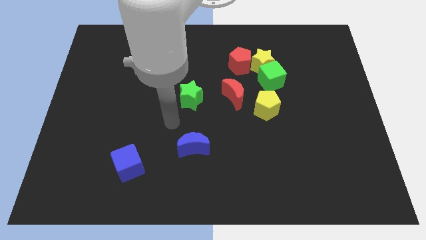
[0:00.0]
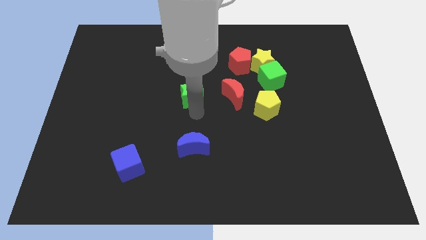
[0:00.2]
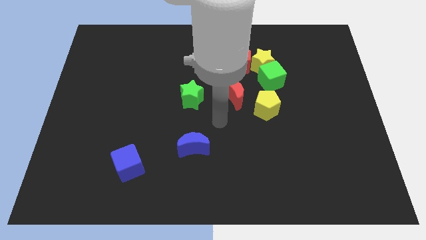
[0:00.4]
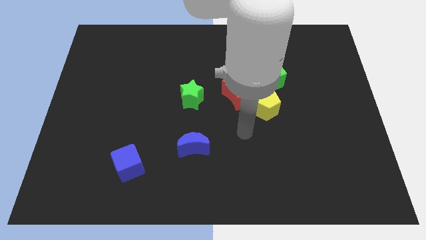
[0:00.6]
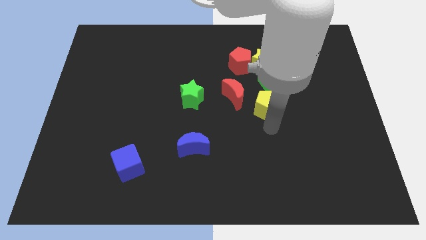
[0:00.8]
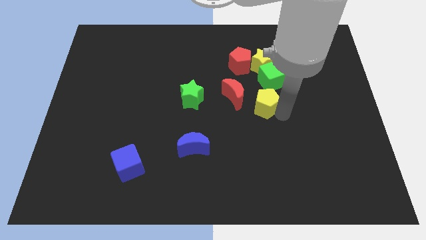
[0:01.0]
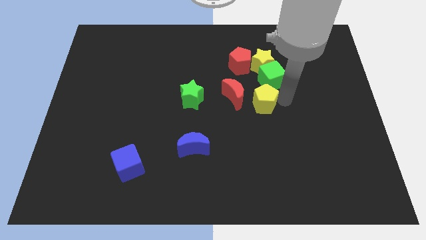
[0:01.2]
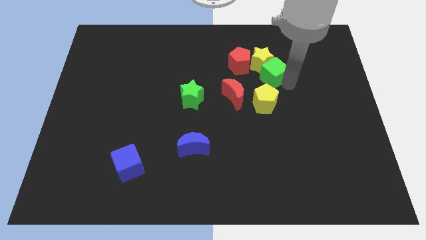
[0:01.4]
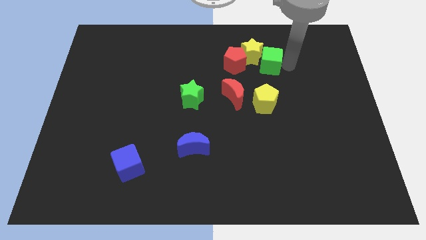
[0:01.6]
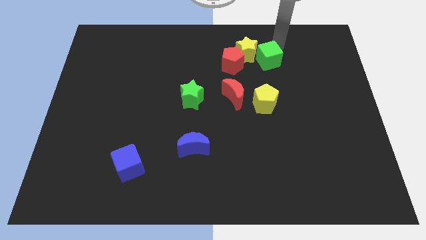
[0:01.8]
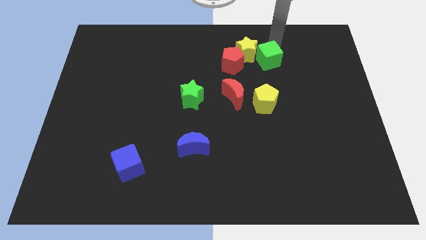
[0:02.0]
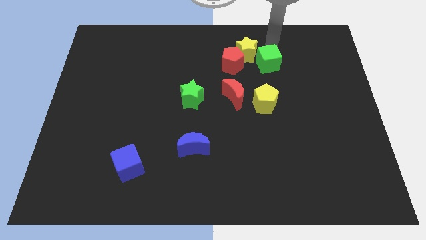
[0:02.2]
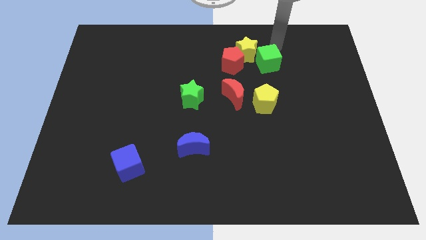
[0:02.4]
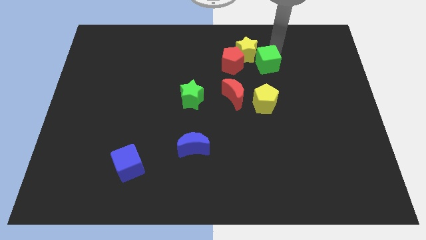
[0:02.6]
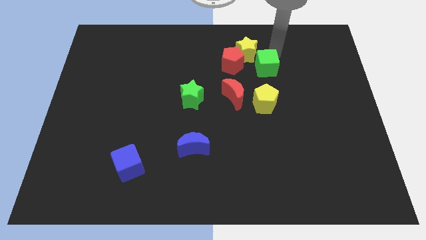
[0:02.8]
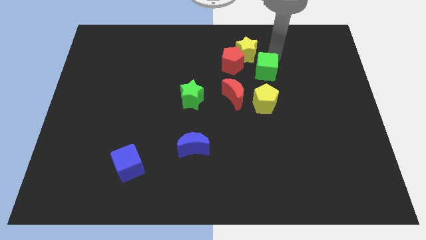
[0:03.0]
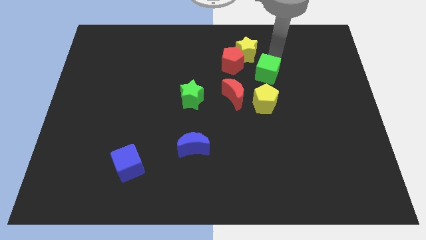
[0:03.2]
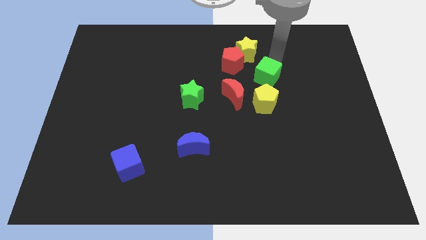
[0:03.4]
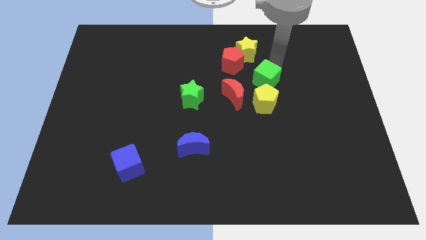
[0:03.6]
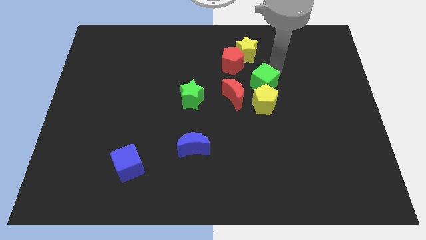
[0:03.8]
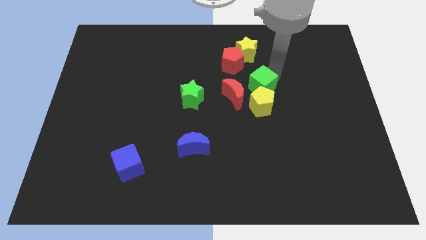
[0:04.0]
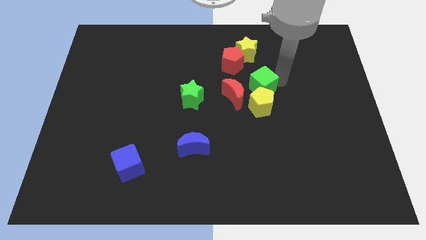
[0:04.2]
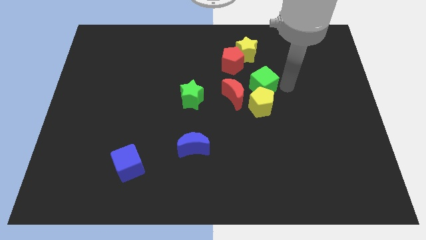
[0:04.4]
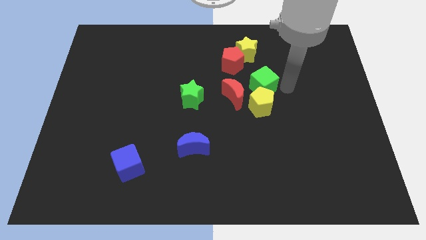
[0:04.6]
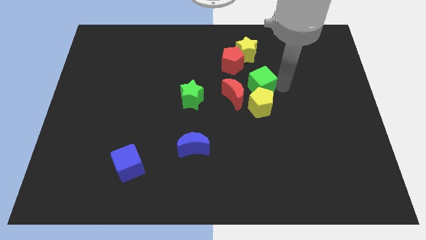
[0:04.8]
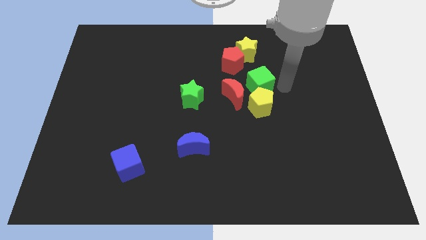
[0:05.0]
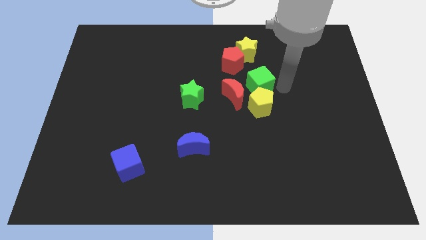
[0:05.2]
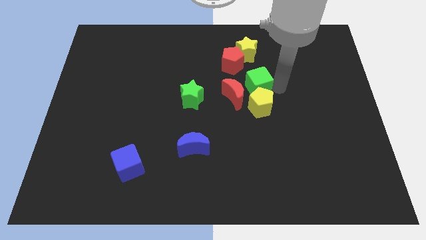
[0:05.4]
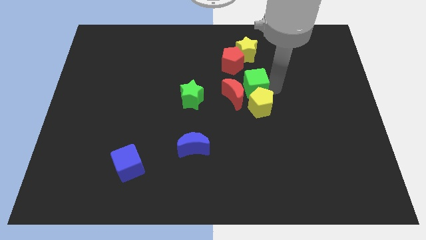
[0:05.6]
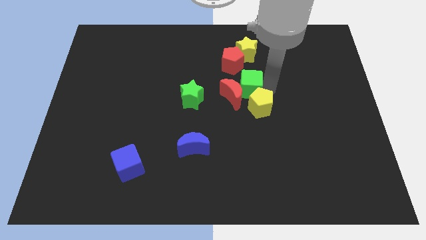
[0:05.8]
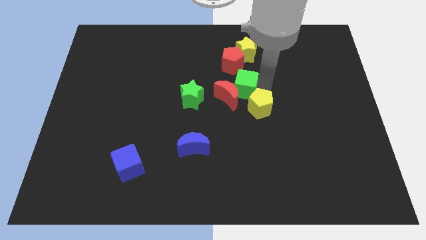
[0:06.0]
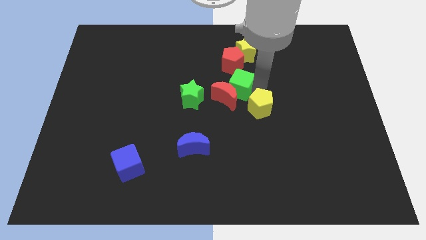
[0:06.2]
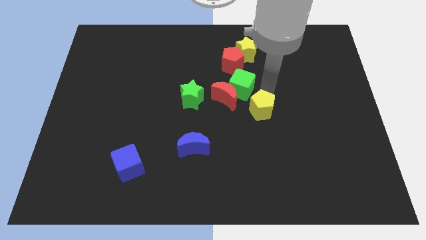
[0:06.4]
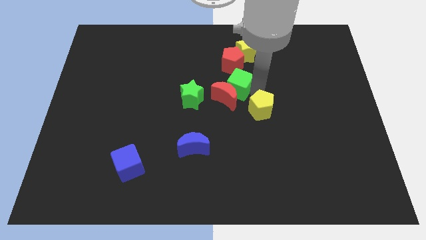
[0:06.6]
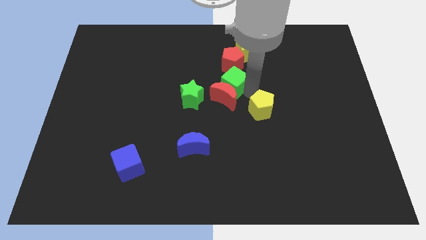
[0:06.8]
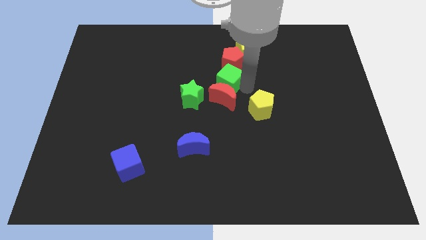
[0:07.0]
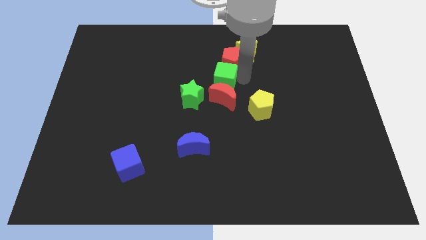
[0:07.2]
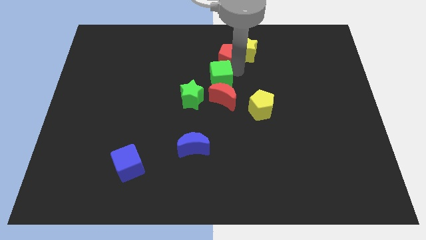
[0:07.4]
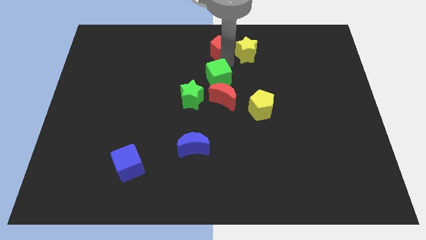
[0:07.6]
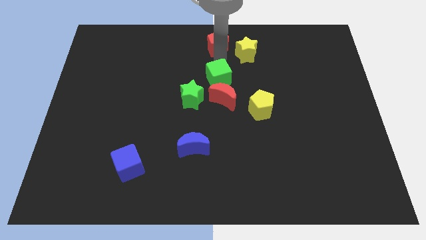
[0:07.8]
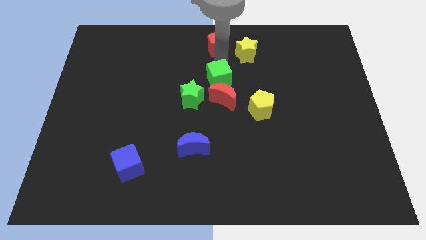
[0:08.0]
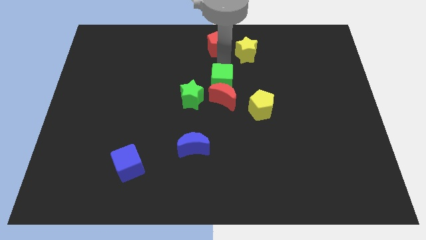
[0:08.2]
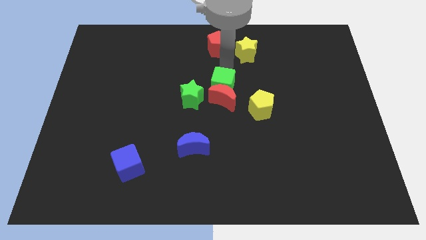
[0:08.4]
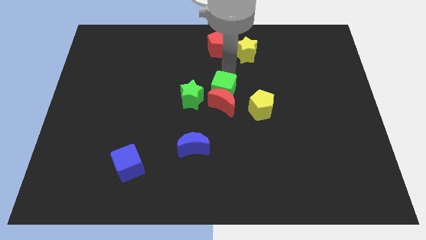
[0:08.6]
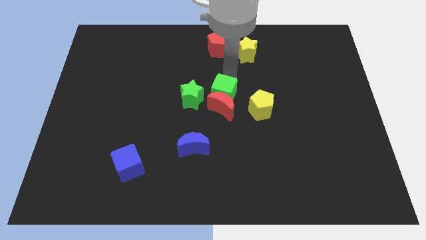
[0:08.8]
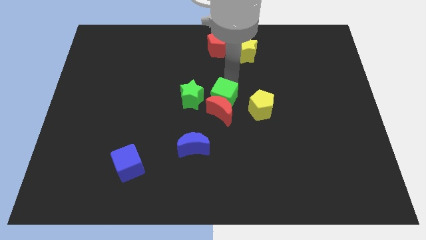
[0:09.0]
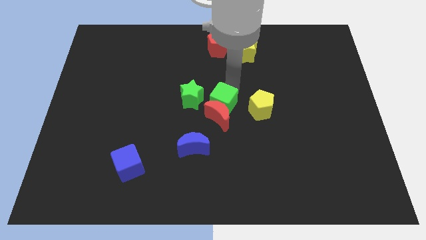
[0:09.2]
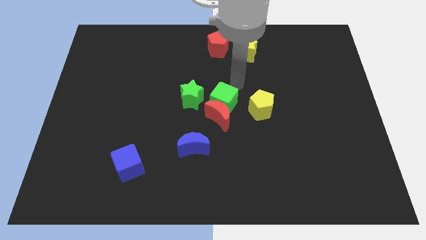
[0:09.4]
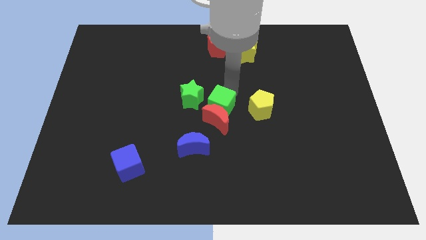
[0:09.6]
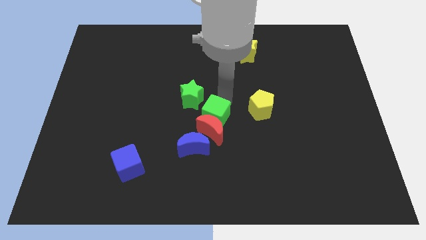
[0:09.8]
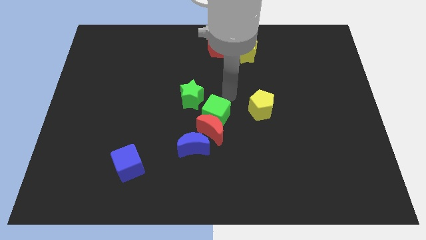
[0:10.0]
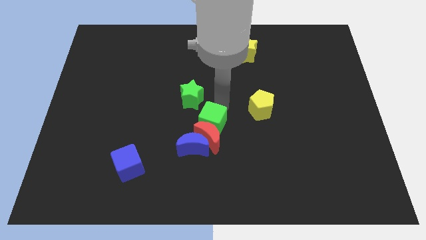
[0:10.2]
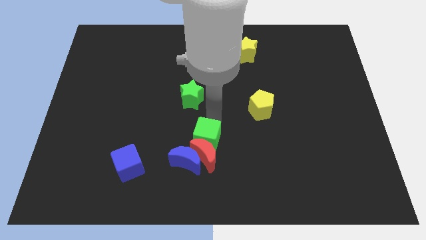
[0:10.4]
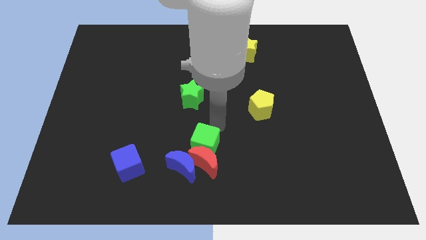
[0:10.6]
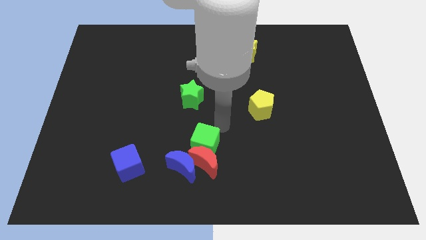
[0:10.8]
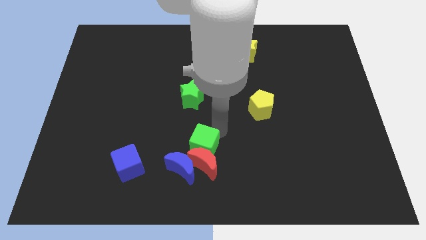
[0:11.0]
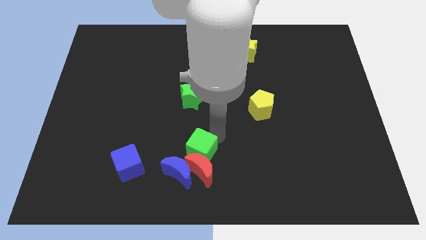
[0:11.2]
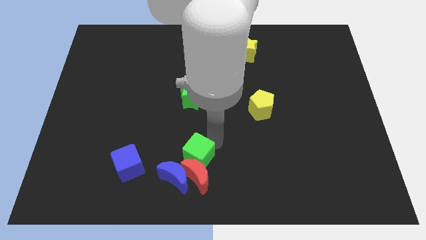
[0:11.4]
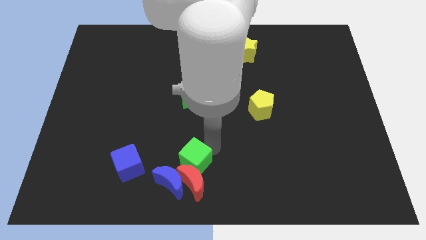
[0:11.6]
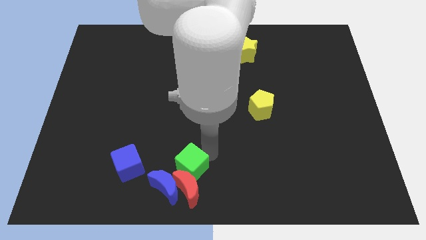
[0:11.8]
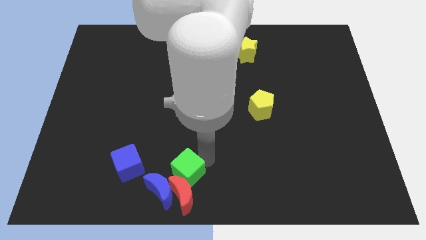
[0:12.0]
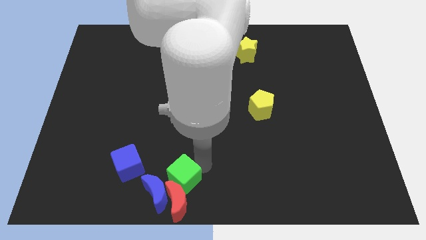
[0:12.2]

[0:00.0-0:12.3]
push the green cube to the blue moon

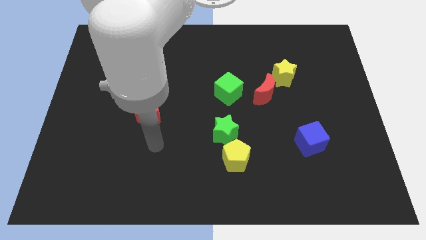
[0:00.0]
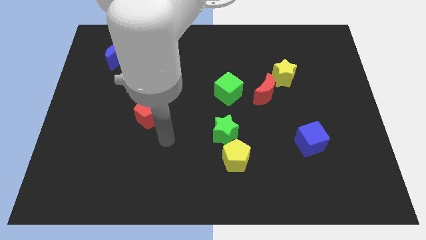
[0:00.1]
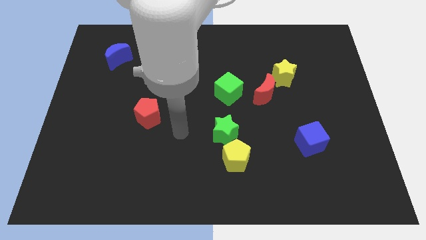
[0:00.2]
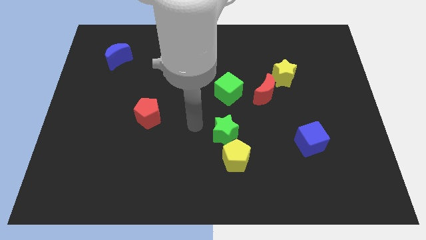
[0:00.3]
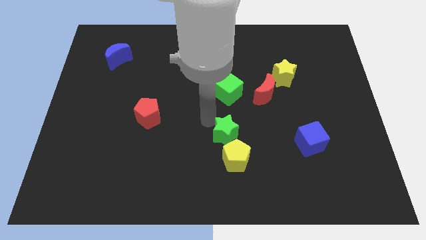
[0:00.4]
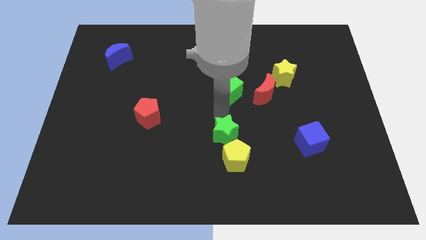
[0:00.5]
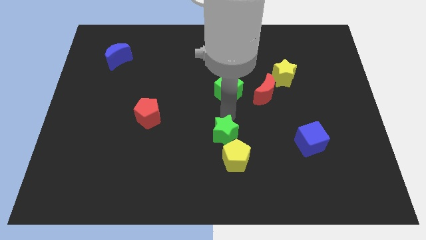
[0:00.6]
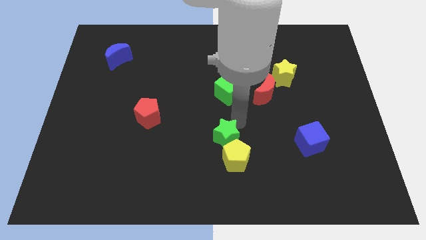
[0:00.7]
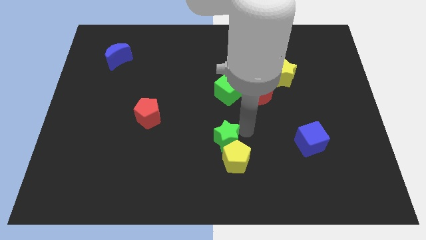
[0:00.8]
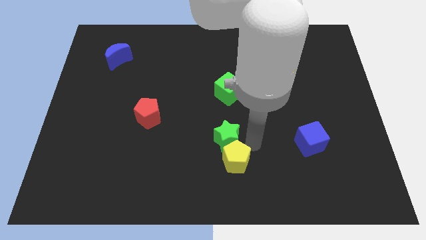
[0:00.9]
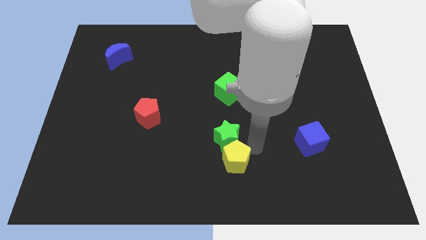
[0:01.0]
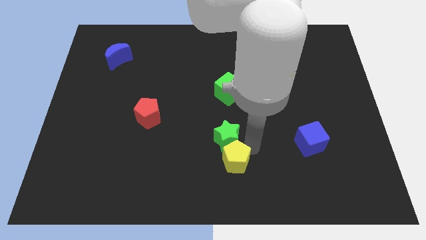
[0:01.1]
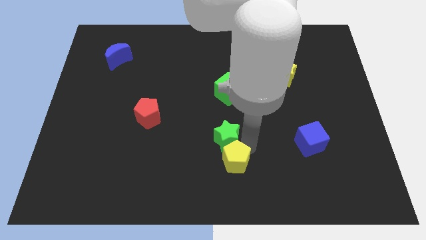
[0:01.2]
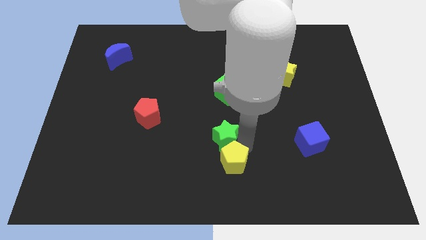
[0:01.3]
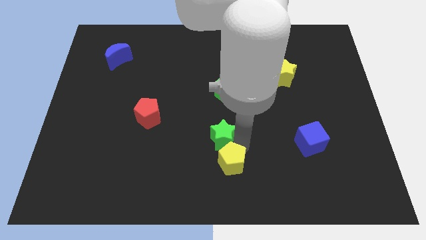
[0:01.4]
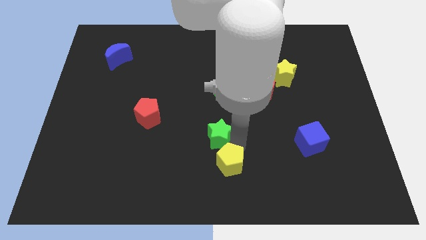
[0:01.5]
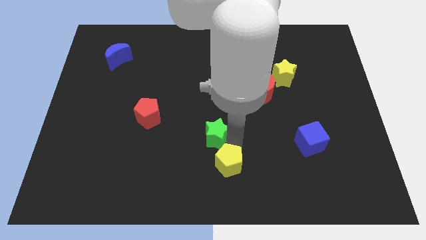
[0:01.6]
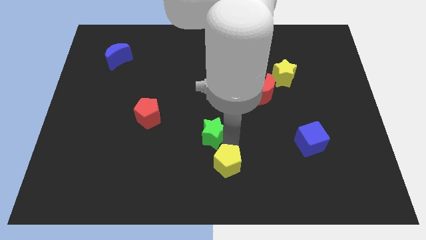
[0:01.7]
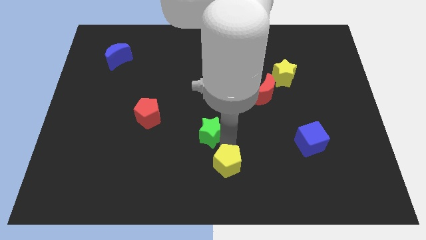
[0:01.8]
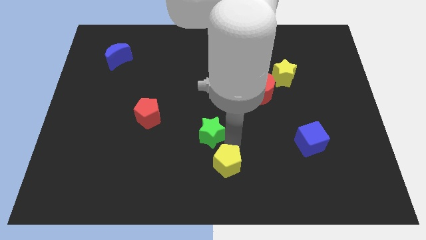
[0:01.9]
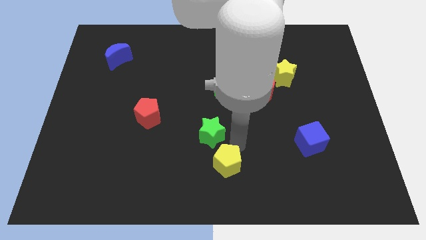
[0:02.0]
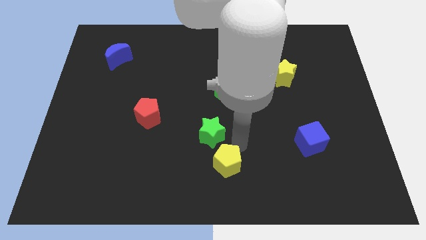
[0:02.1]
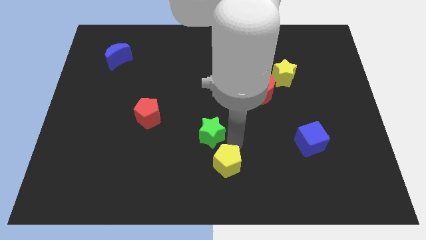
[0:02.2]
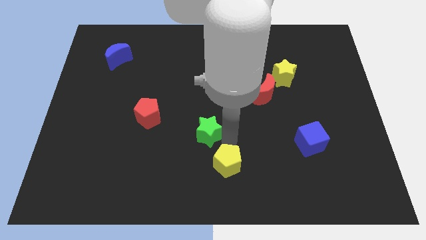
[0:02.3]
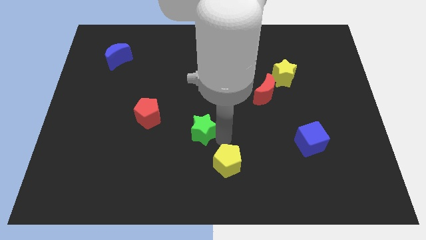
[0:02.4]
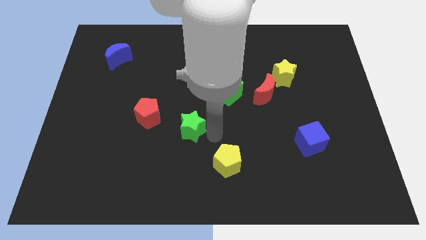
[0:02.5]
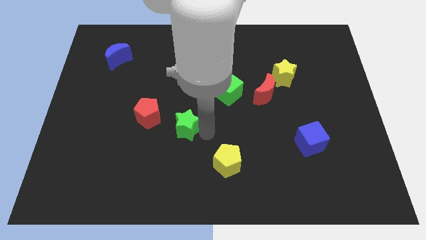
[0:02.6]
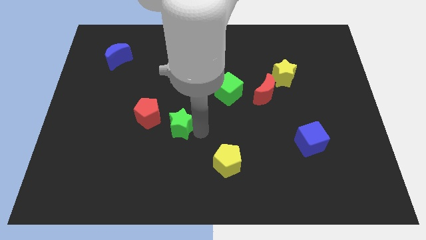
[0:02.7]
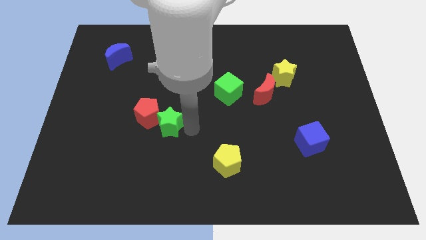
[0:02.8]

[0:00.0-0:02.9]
put the green star to the red pentagon
